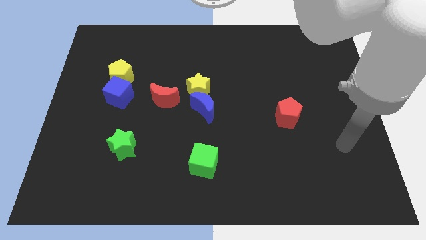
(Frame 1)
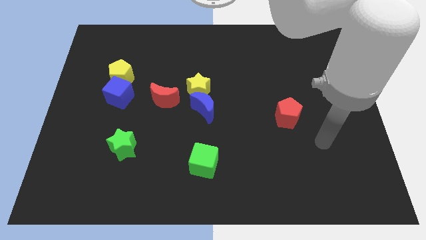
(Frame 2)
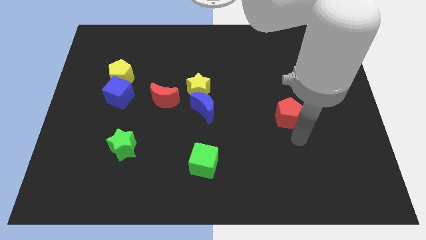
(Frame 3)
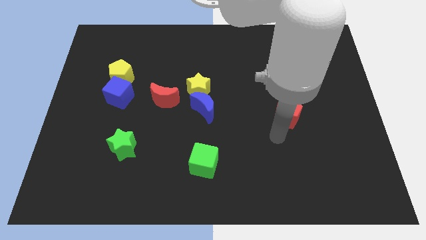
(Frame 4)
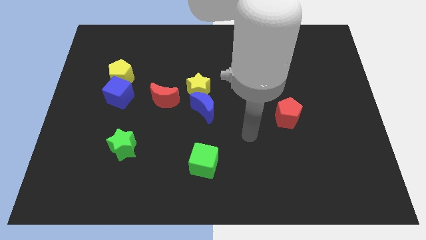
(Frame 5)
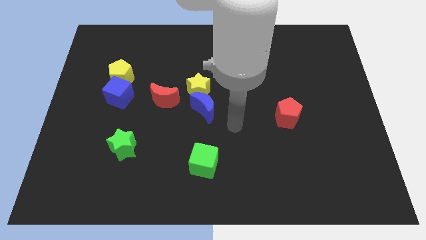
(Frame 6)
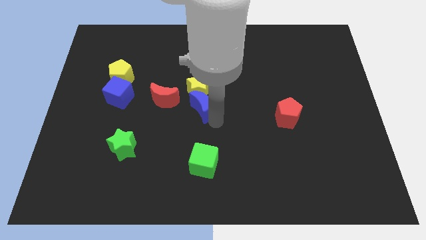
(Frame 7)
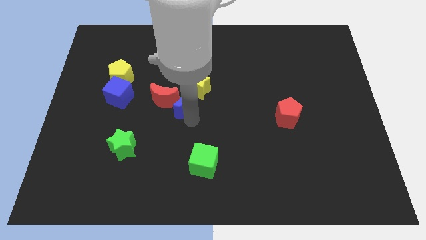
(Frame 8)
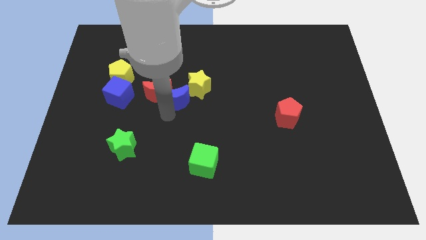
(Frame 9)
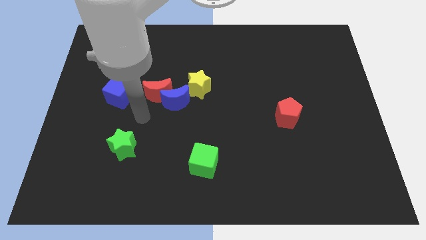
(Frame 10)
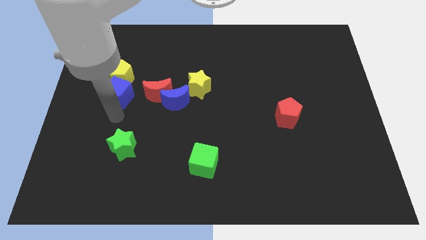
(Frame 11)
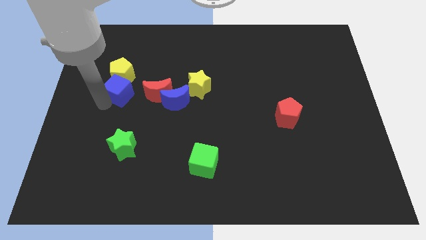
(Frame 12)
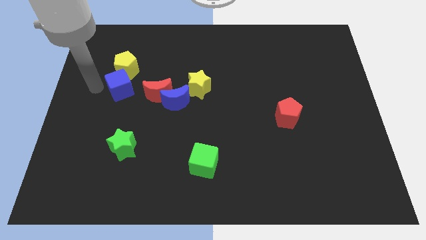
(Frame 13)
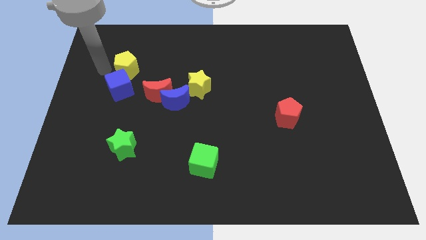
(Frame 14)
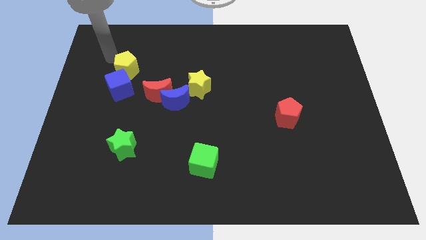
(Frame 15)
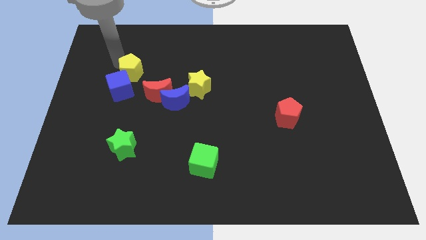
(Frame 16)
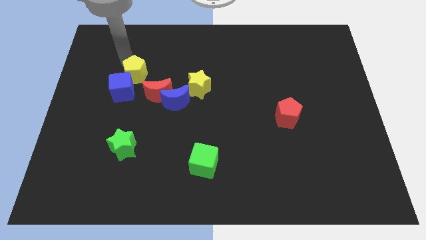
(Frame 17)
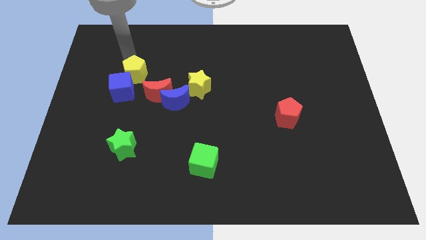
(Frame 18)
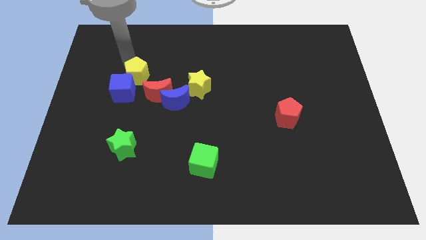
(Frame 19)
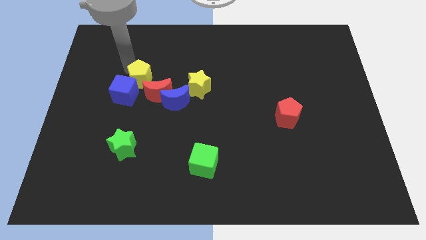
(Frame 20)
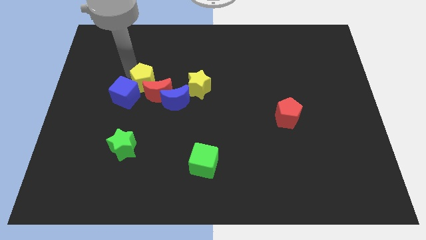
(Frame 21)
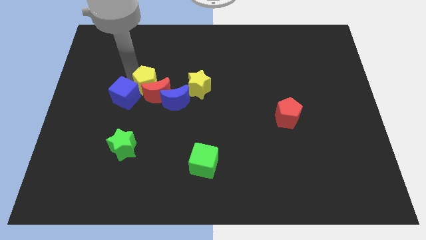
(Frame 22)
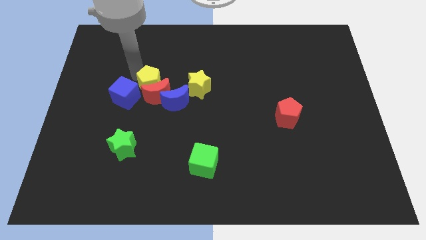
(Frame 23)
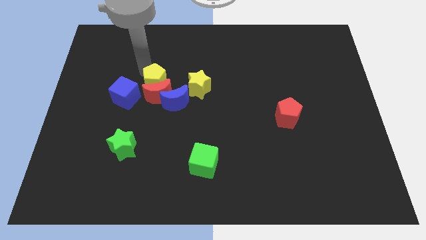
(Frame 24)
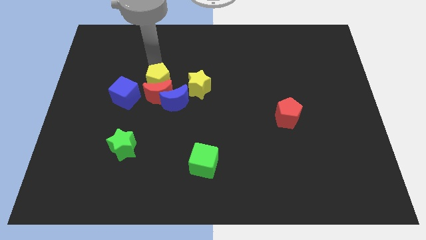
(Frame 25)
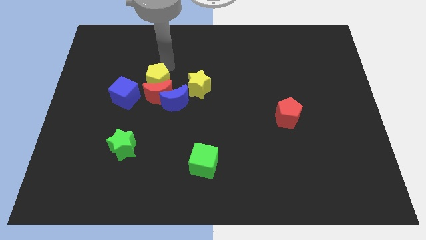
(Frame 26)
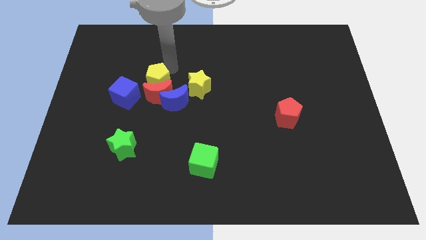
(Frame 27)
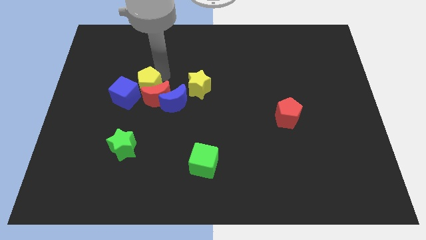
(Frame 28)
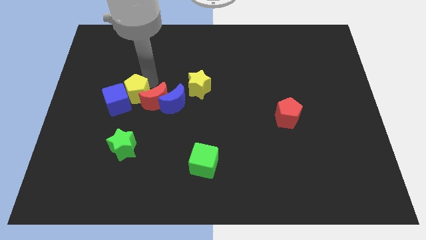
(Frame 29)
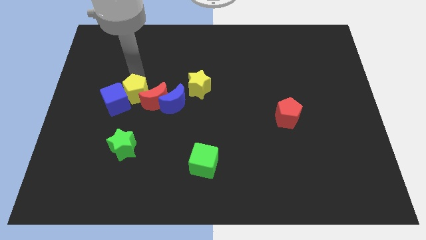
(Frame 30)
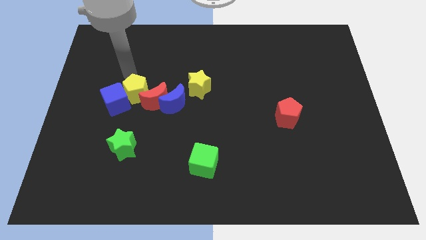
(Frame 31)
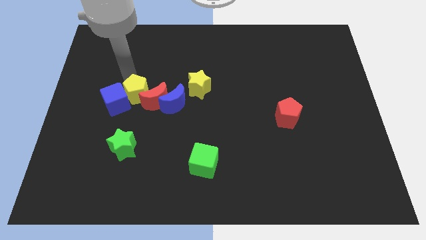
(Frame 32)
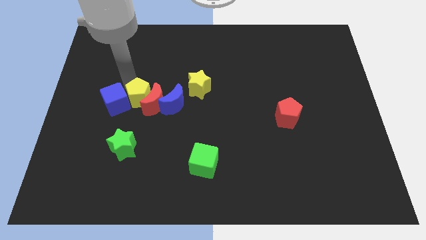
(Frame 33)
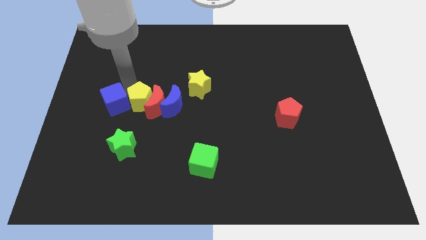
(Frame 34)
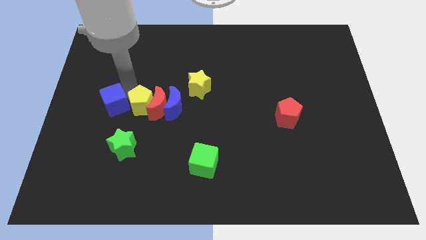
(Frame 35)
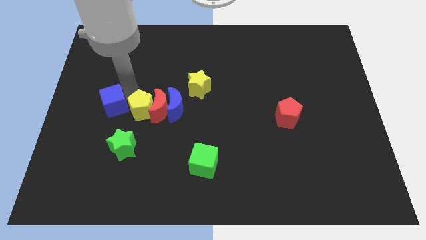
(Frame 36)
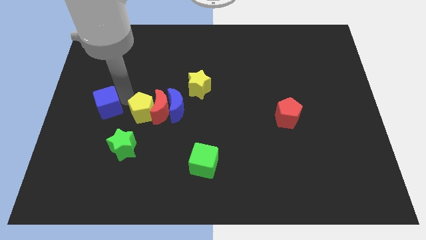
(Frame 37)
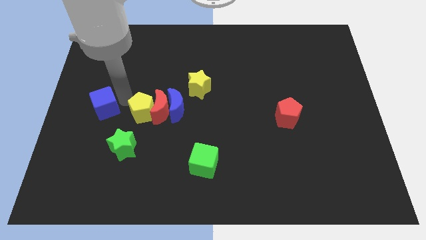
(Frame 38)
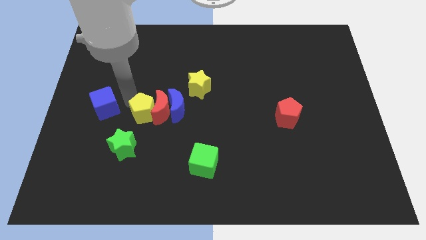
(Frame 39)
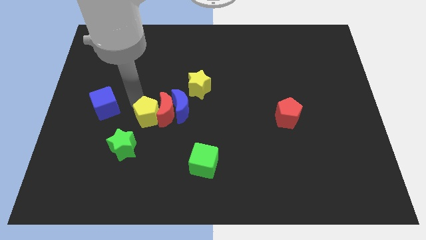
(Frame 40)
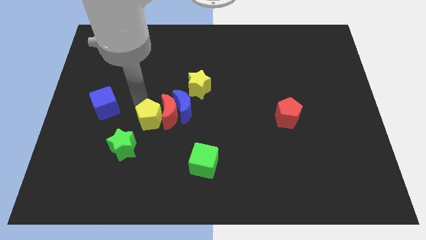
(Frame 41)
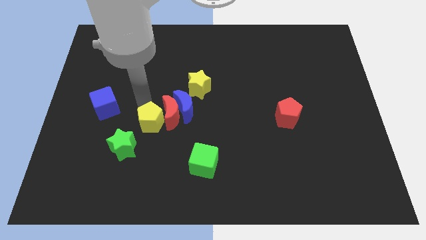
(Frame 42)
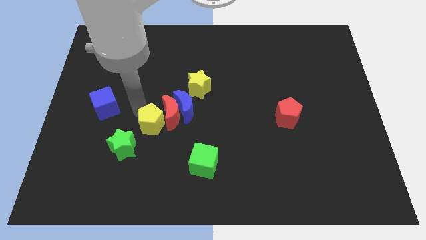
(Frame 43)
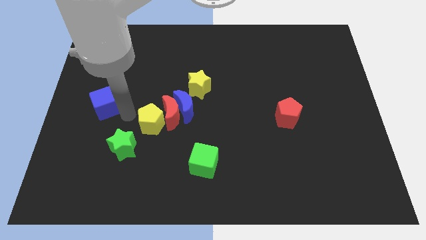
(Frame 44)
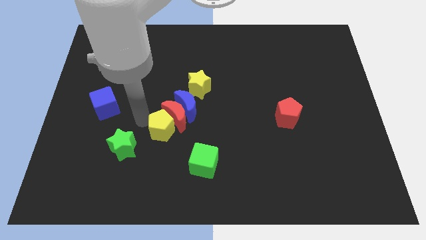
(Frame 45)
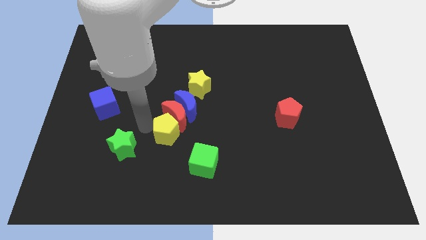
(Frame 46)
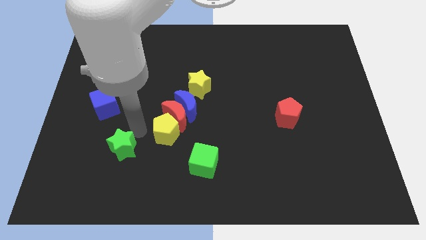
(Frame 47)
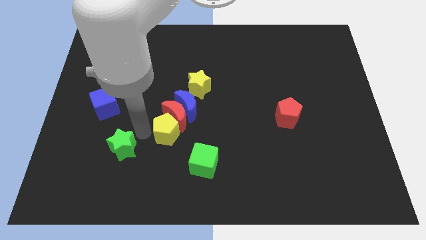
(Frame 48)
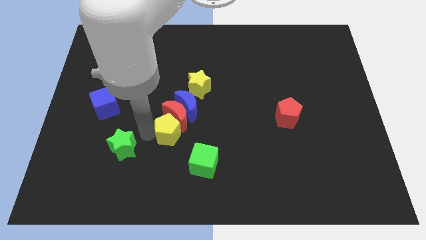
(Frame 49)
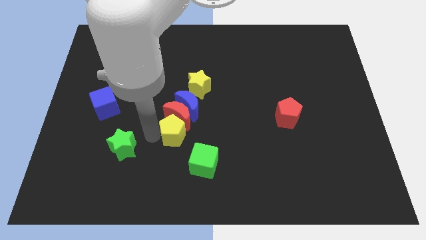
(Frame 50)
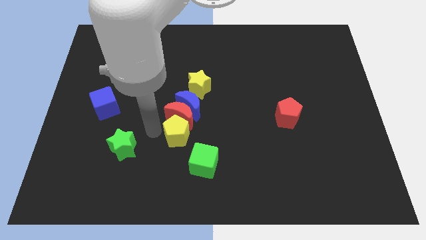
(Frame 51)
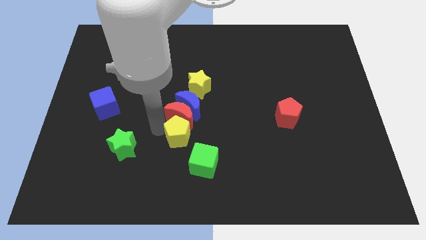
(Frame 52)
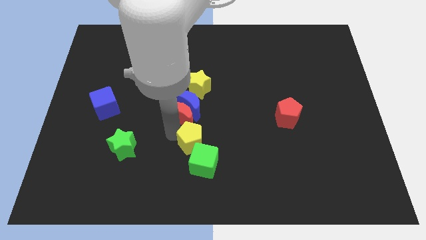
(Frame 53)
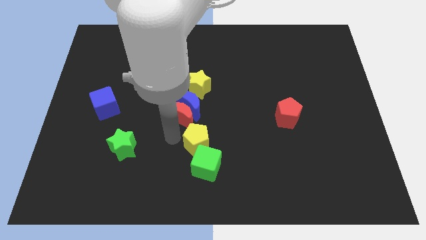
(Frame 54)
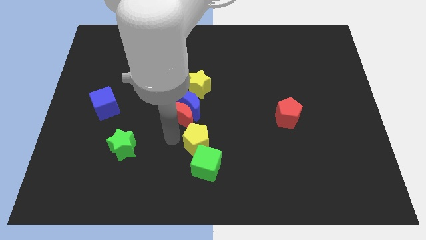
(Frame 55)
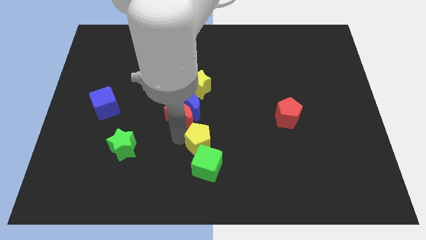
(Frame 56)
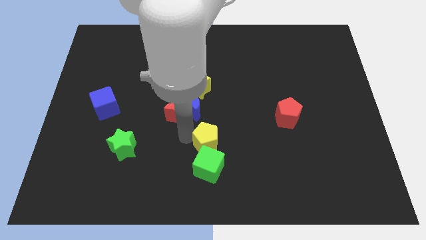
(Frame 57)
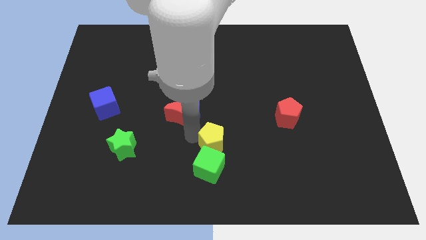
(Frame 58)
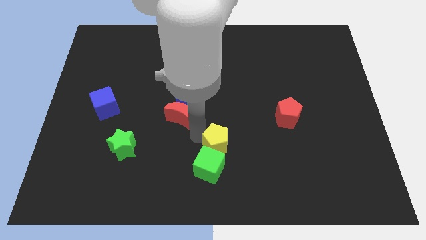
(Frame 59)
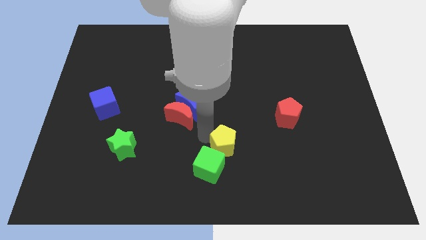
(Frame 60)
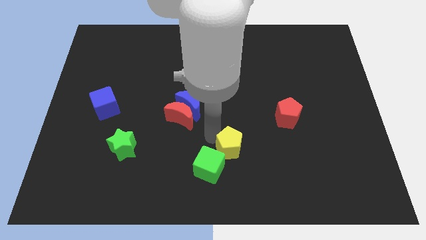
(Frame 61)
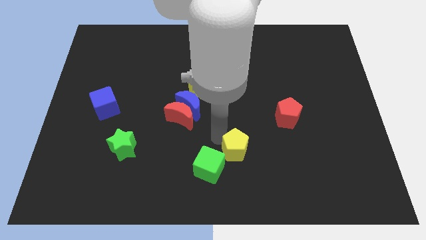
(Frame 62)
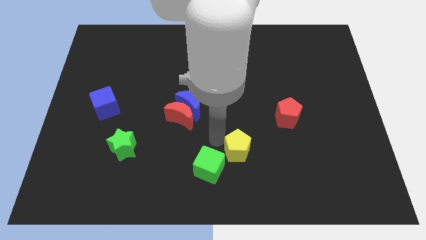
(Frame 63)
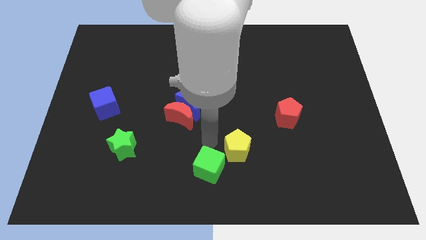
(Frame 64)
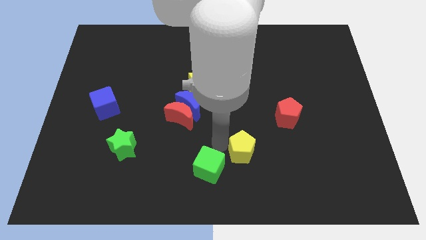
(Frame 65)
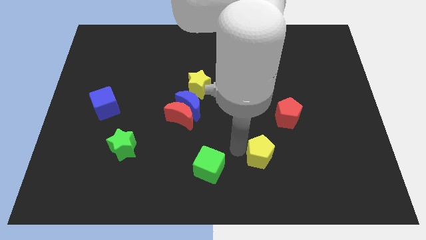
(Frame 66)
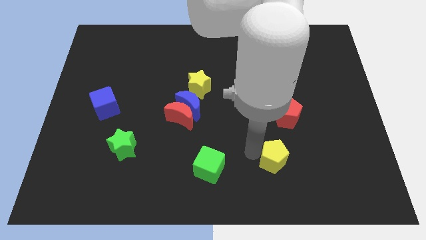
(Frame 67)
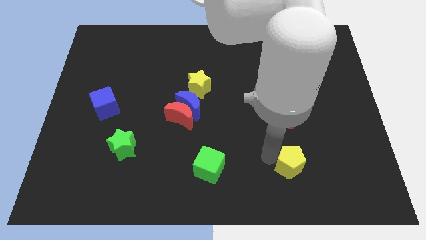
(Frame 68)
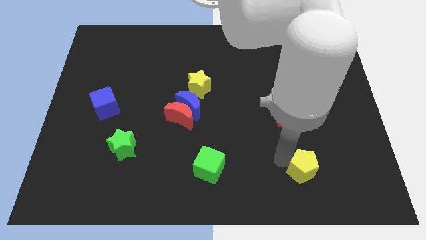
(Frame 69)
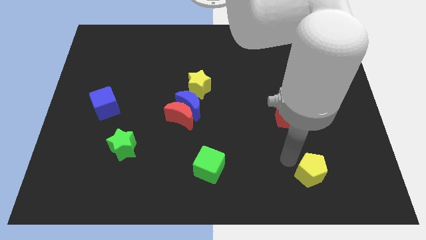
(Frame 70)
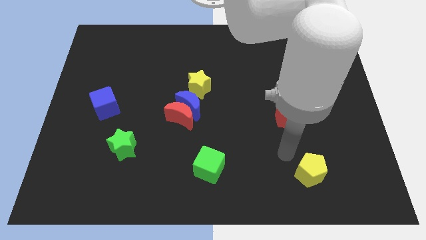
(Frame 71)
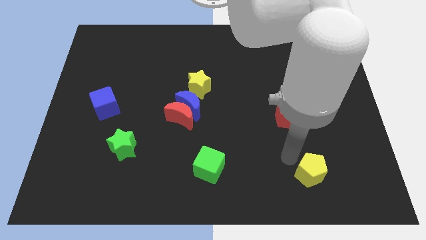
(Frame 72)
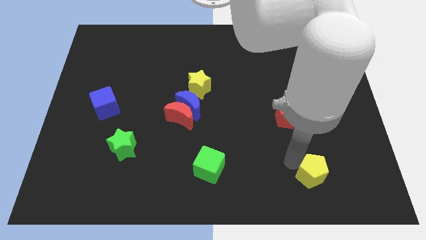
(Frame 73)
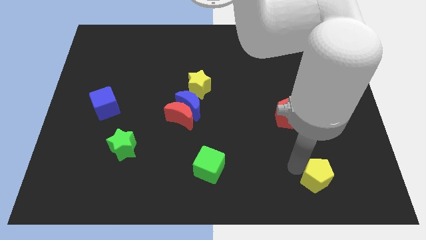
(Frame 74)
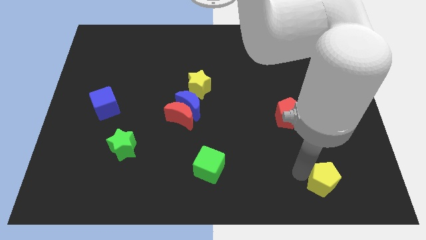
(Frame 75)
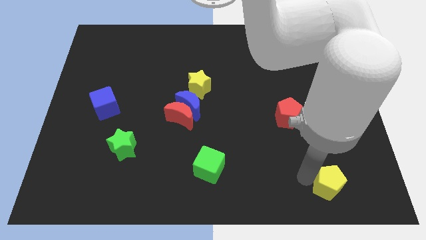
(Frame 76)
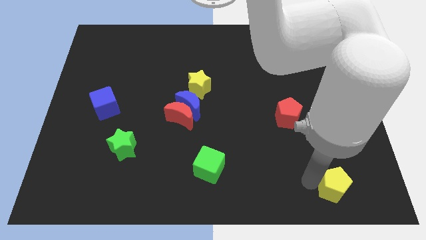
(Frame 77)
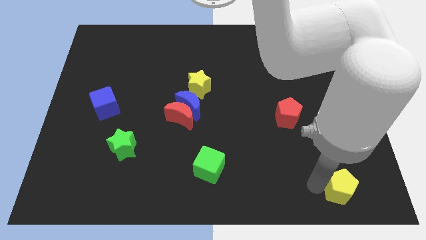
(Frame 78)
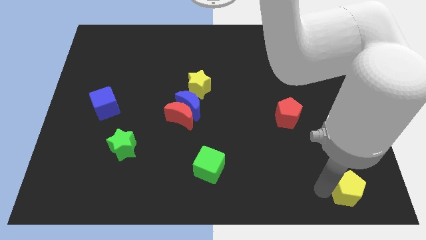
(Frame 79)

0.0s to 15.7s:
put the yellow pentagon to the lower right corner
